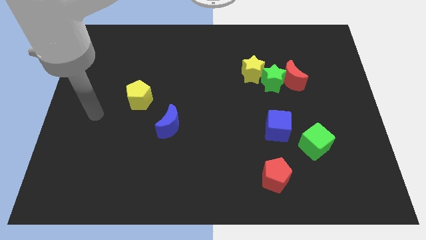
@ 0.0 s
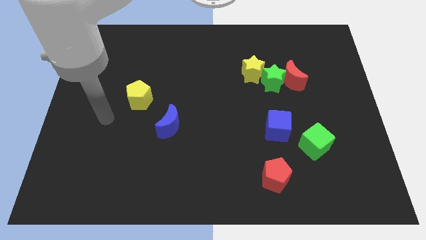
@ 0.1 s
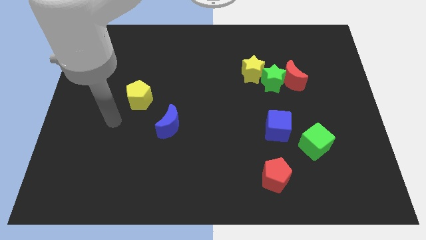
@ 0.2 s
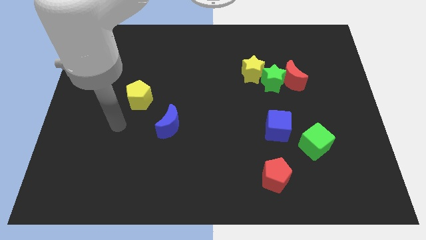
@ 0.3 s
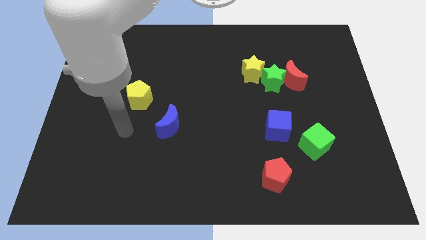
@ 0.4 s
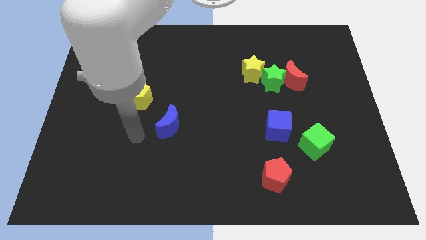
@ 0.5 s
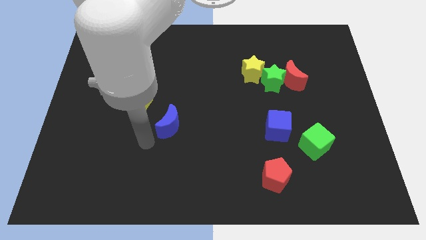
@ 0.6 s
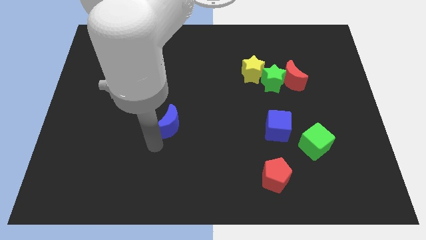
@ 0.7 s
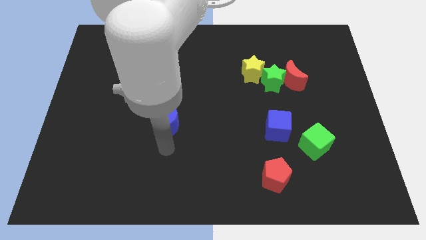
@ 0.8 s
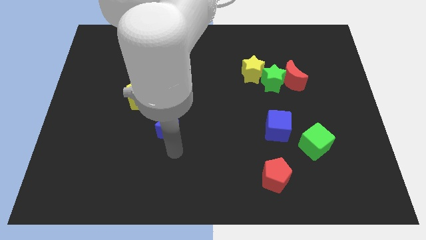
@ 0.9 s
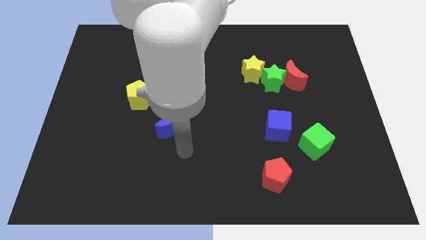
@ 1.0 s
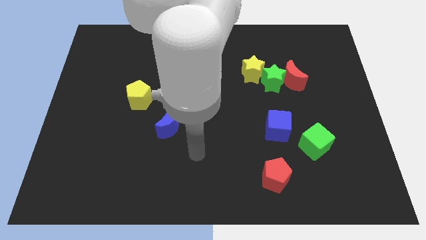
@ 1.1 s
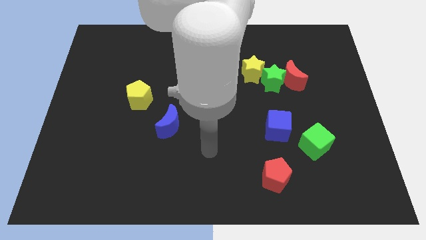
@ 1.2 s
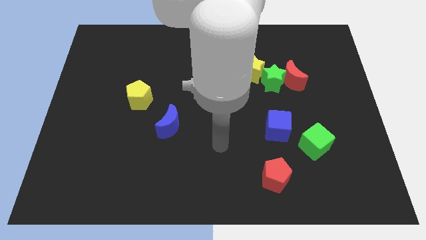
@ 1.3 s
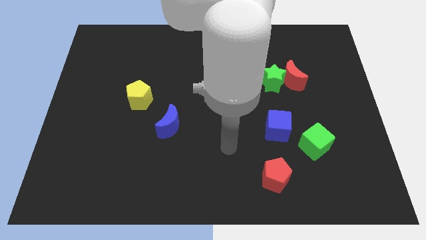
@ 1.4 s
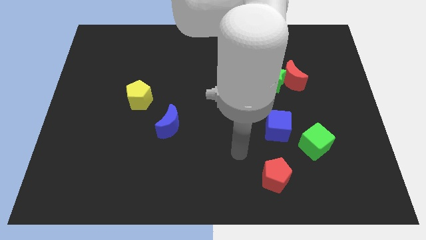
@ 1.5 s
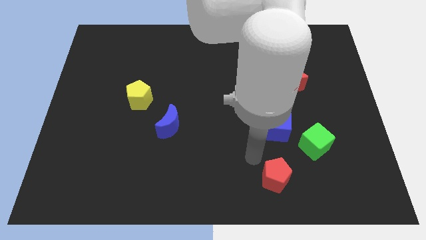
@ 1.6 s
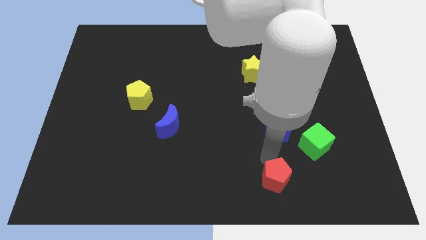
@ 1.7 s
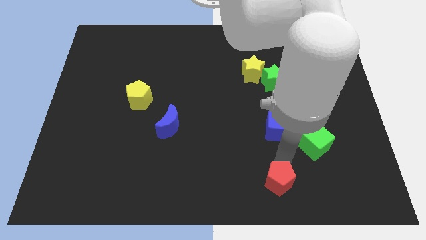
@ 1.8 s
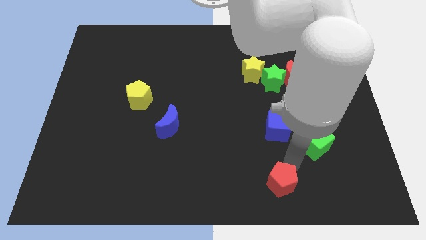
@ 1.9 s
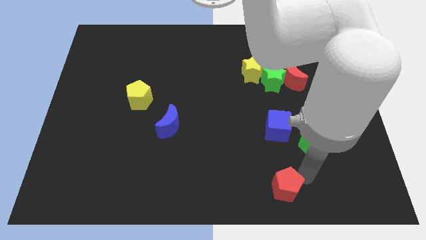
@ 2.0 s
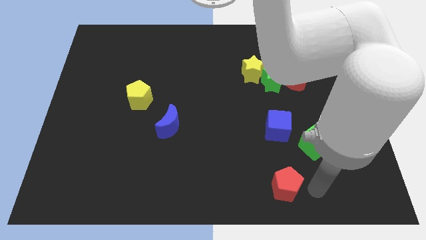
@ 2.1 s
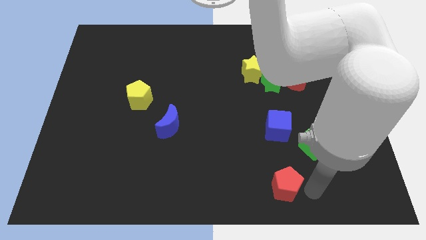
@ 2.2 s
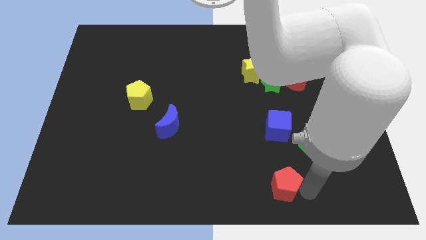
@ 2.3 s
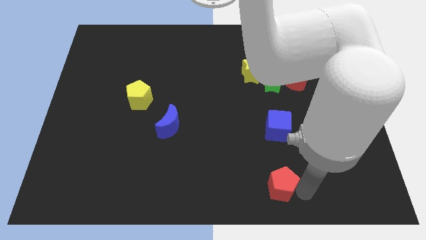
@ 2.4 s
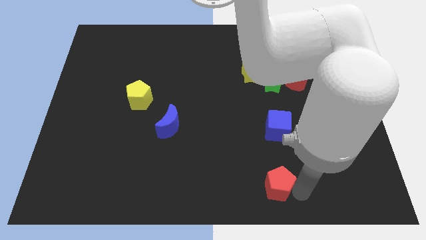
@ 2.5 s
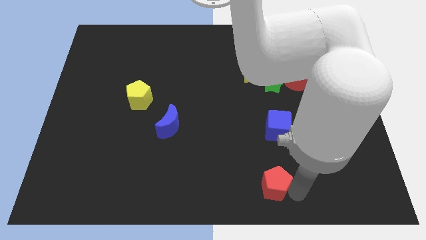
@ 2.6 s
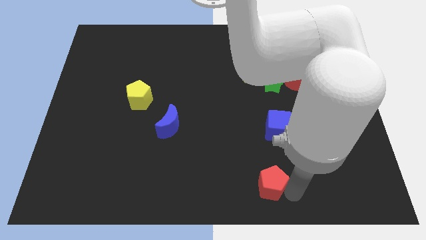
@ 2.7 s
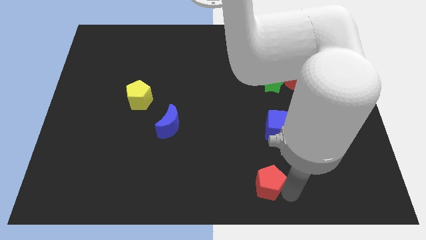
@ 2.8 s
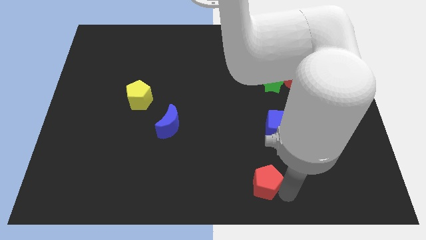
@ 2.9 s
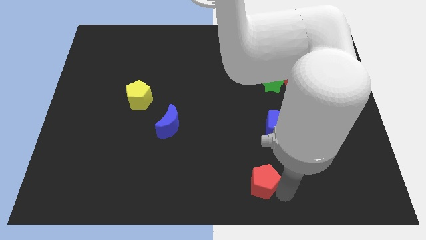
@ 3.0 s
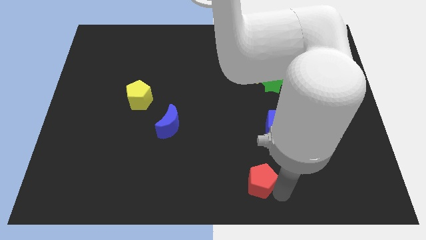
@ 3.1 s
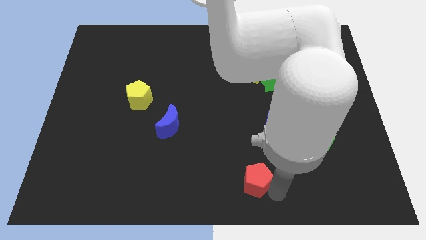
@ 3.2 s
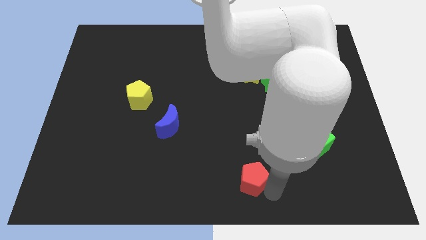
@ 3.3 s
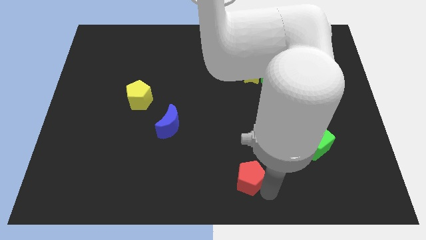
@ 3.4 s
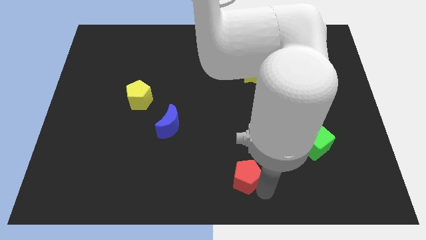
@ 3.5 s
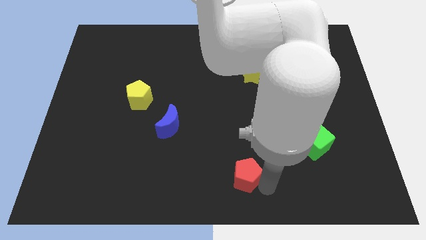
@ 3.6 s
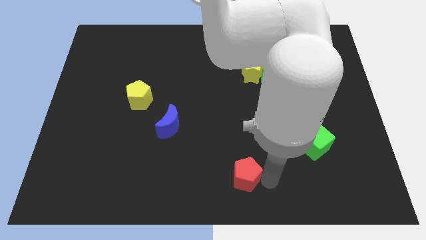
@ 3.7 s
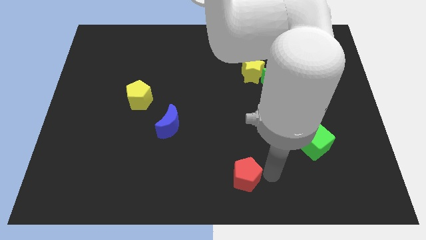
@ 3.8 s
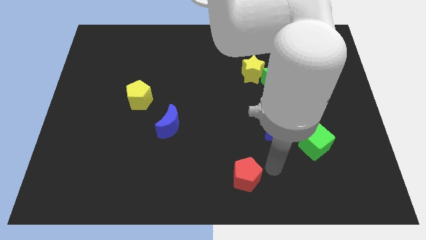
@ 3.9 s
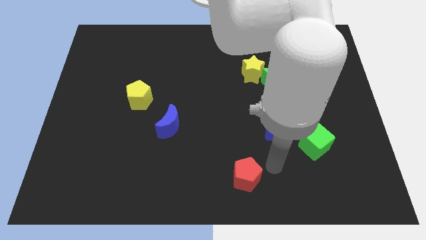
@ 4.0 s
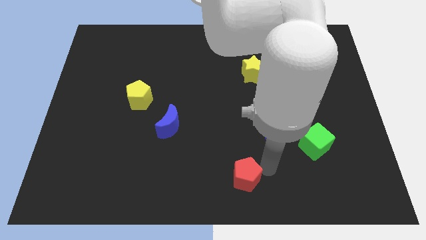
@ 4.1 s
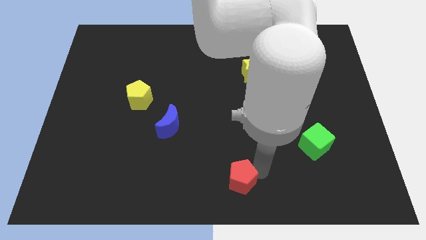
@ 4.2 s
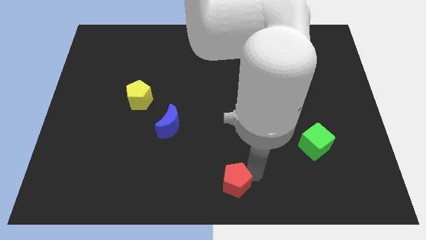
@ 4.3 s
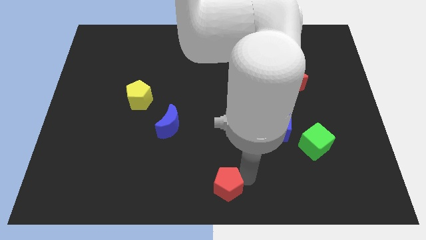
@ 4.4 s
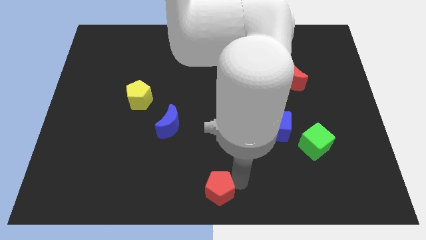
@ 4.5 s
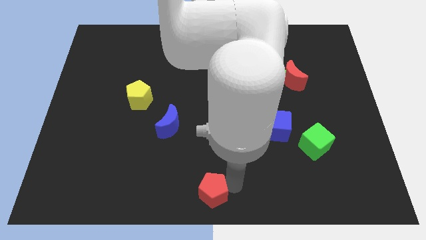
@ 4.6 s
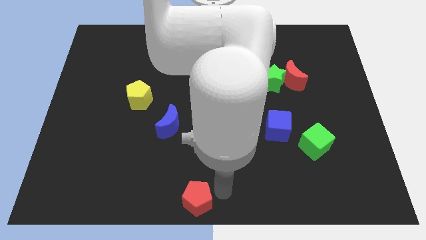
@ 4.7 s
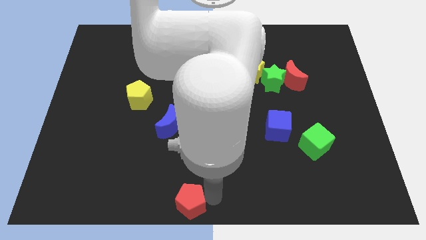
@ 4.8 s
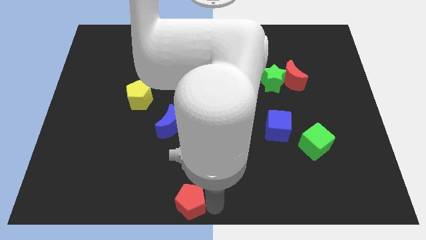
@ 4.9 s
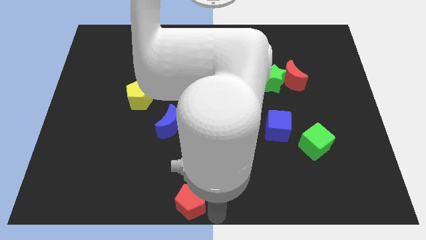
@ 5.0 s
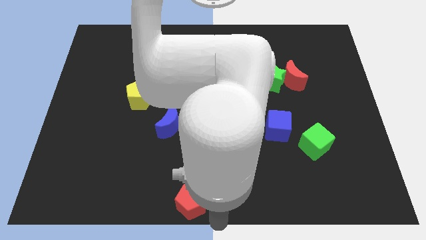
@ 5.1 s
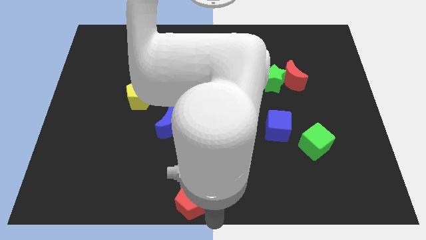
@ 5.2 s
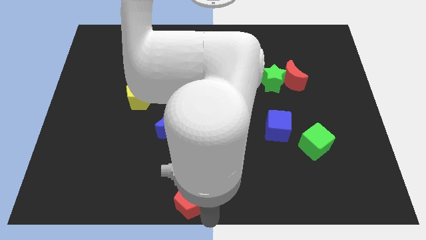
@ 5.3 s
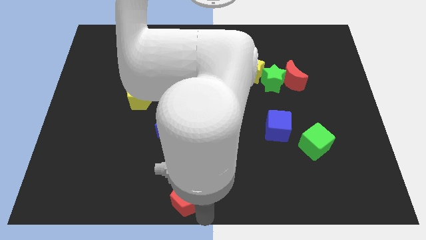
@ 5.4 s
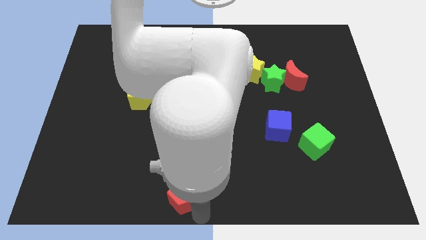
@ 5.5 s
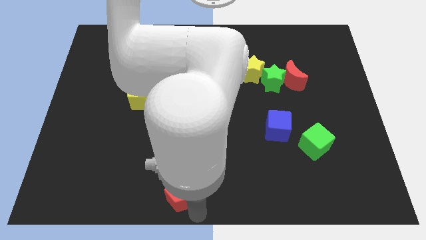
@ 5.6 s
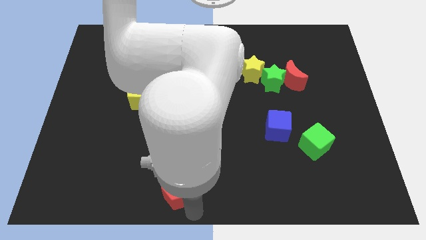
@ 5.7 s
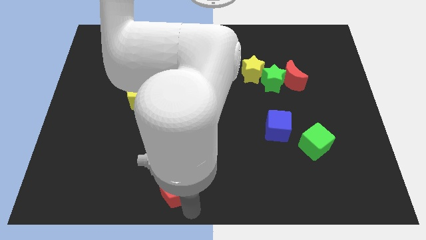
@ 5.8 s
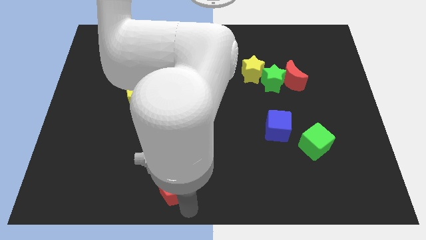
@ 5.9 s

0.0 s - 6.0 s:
push the red pentagon left

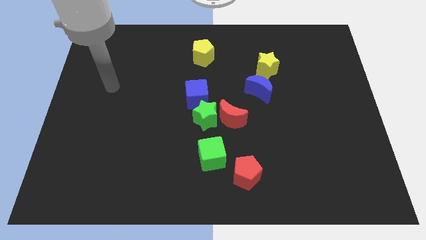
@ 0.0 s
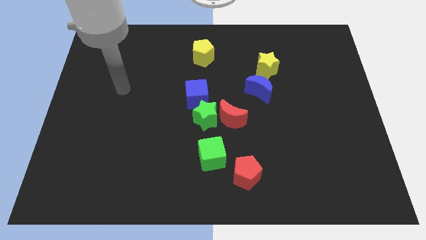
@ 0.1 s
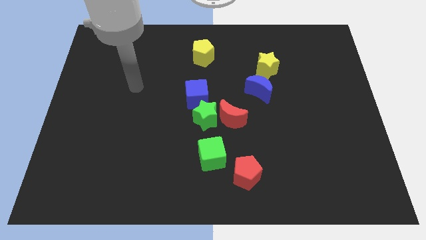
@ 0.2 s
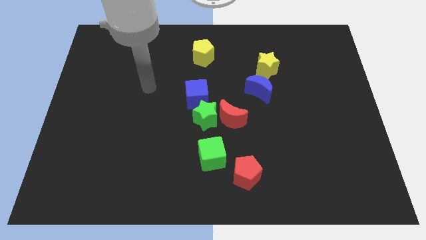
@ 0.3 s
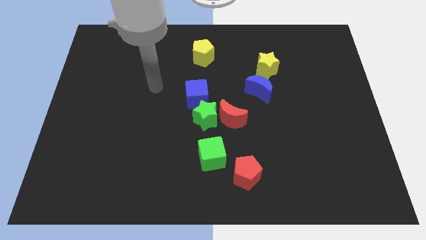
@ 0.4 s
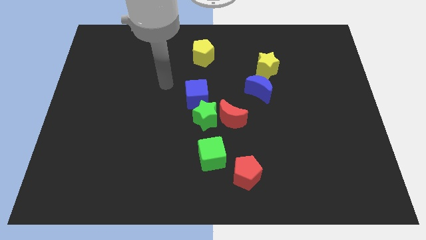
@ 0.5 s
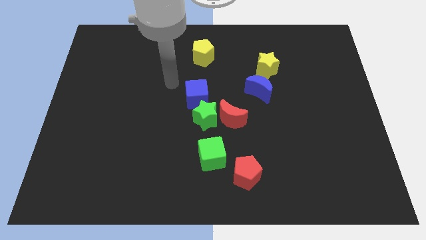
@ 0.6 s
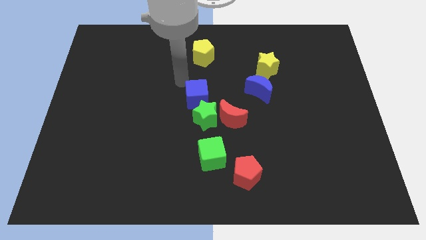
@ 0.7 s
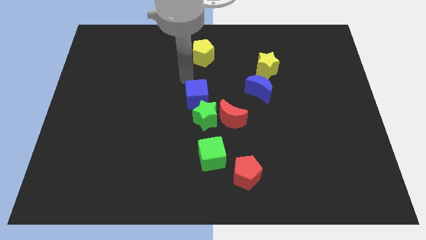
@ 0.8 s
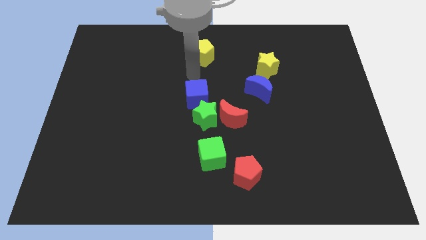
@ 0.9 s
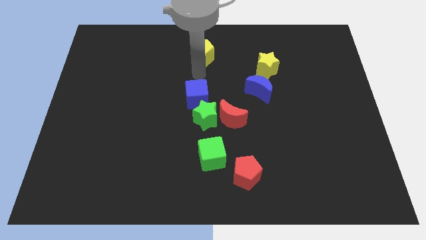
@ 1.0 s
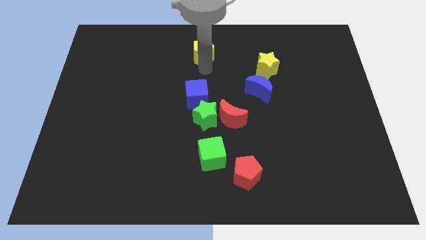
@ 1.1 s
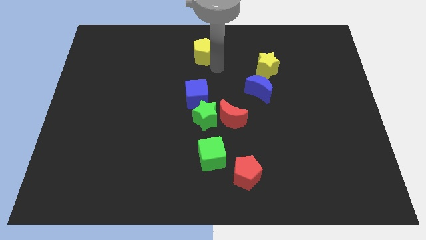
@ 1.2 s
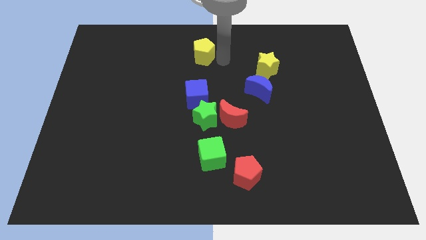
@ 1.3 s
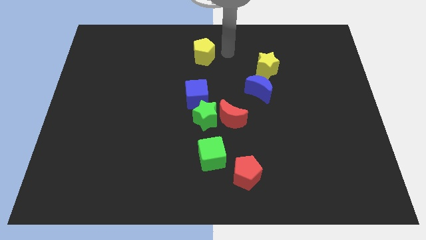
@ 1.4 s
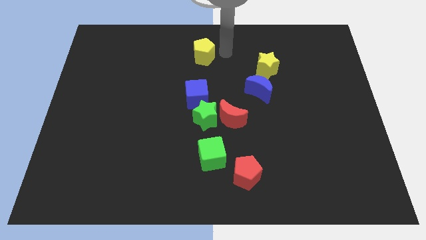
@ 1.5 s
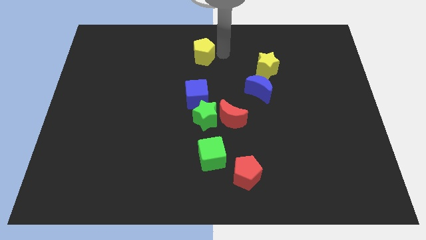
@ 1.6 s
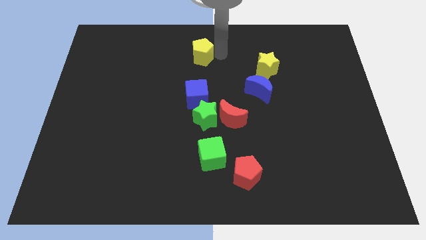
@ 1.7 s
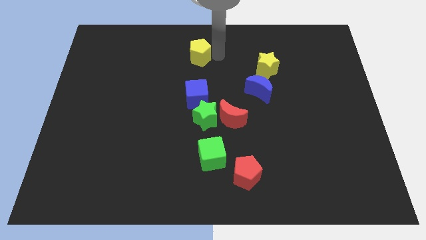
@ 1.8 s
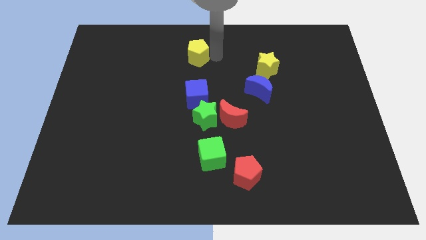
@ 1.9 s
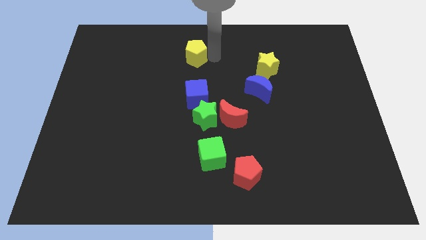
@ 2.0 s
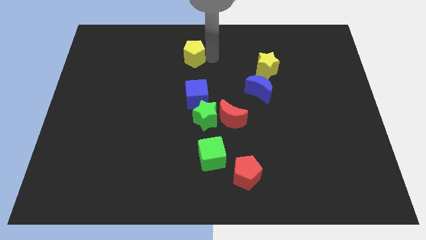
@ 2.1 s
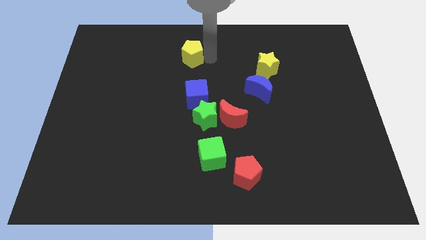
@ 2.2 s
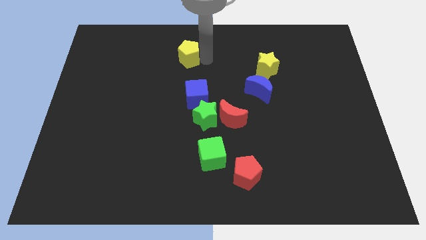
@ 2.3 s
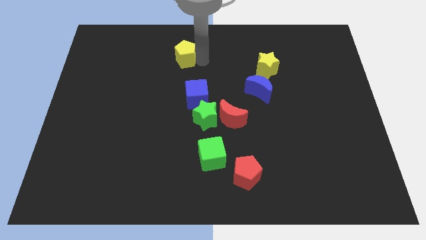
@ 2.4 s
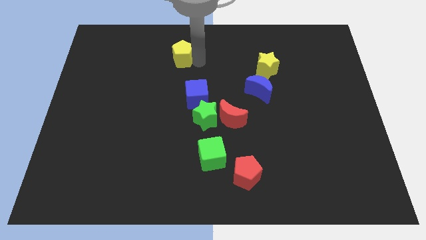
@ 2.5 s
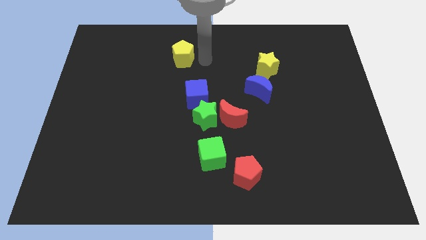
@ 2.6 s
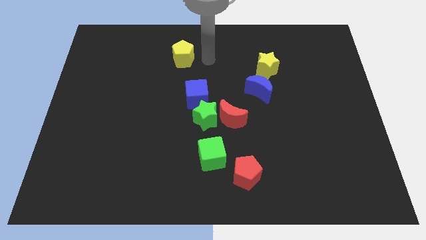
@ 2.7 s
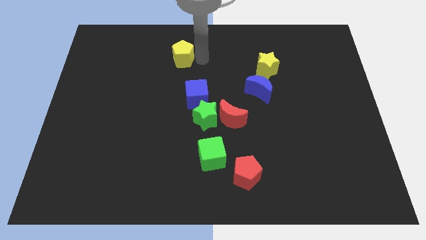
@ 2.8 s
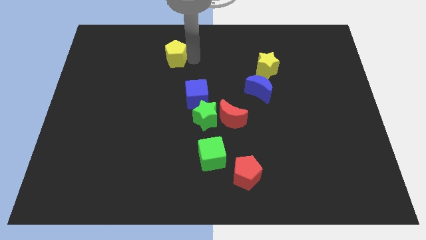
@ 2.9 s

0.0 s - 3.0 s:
slightly slide the yellow pentagon left
